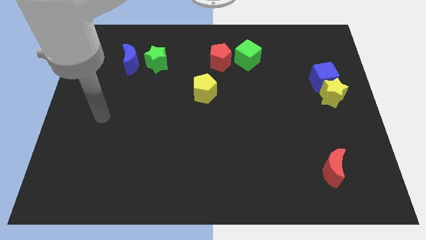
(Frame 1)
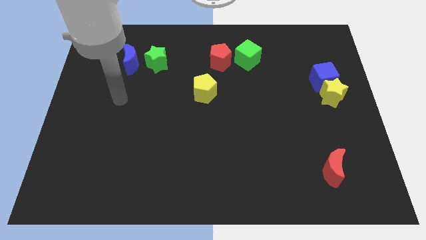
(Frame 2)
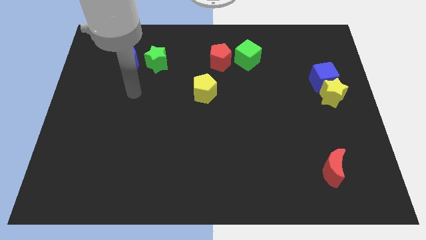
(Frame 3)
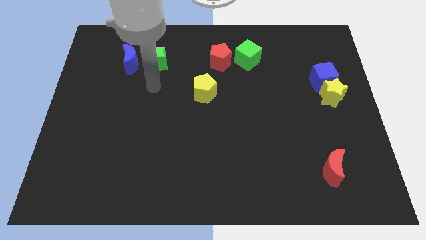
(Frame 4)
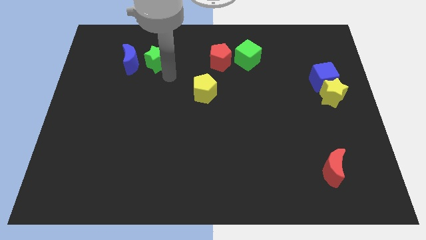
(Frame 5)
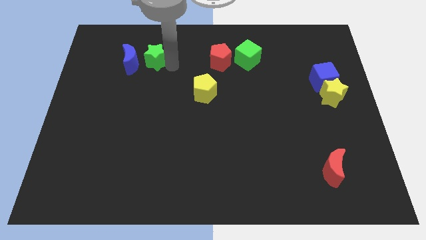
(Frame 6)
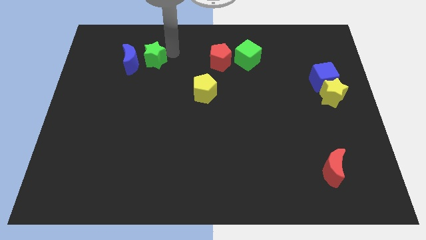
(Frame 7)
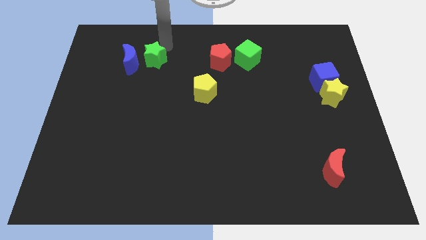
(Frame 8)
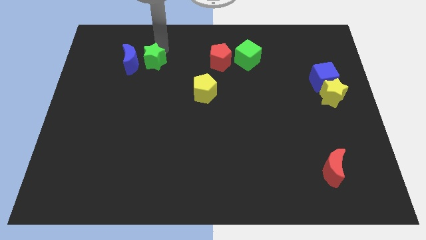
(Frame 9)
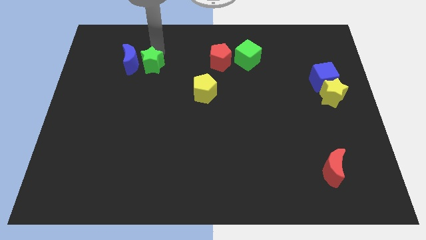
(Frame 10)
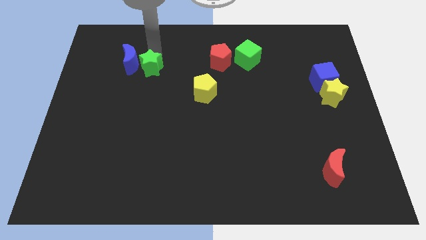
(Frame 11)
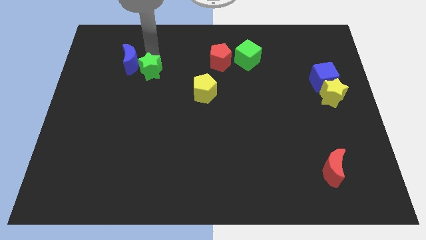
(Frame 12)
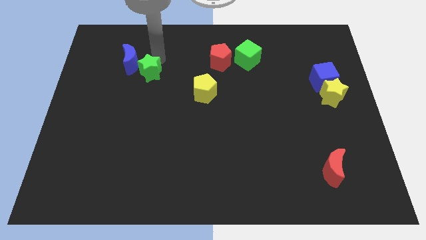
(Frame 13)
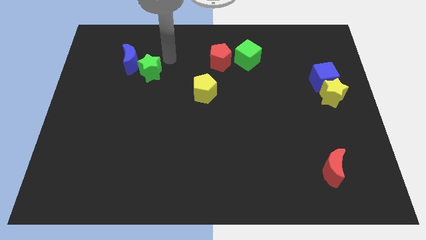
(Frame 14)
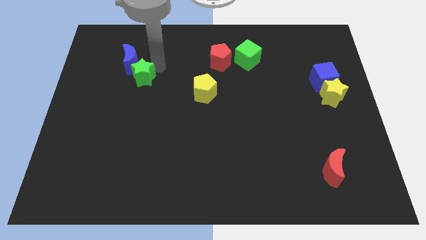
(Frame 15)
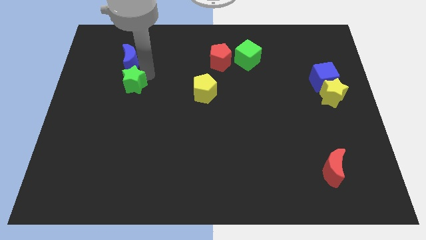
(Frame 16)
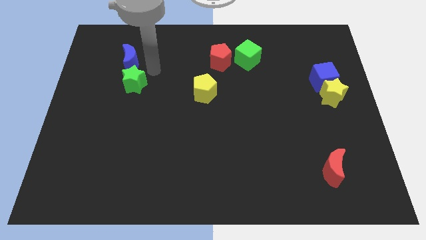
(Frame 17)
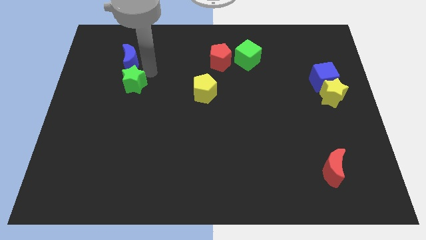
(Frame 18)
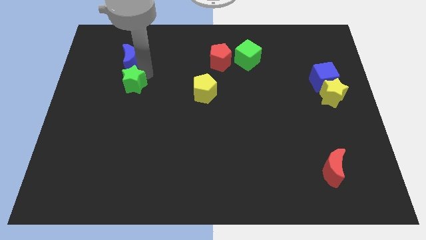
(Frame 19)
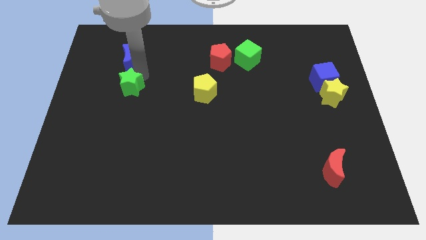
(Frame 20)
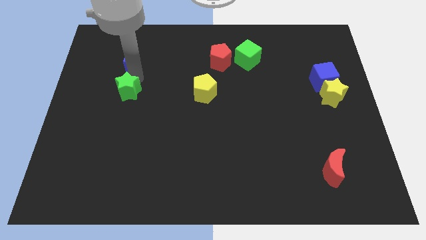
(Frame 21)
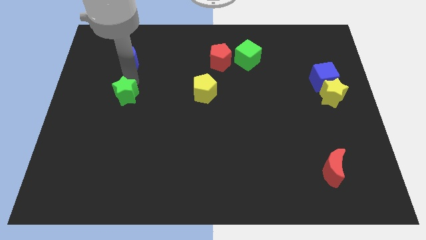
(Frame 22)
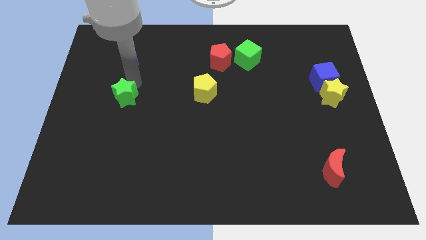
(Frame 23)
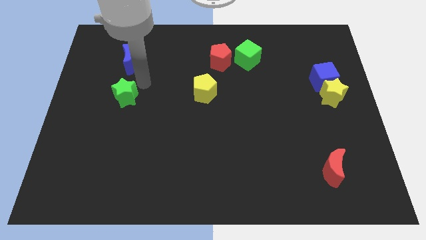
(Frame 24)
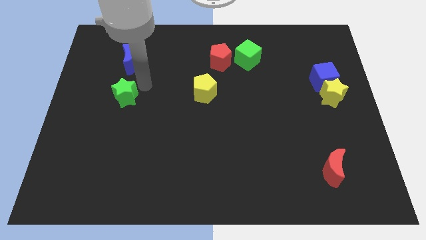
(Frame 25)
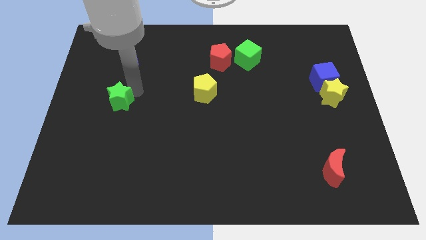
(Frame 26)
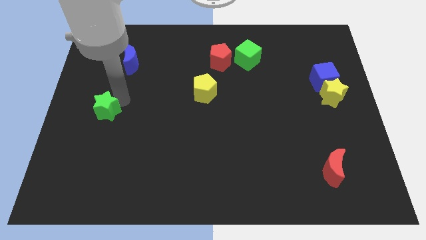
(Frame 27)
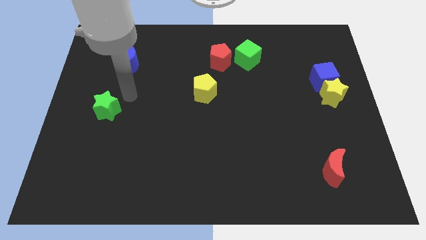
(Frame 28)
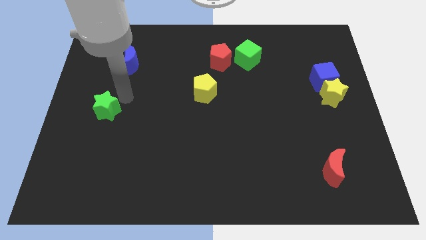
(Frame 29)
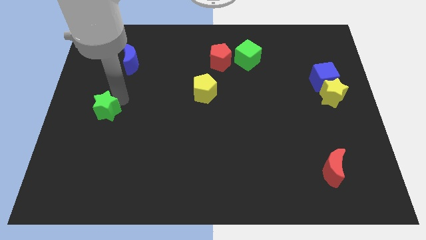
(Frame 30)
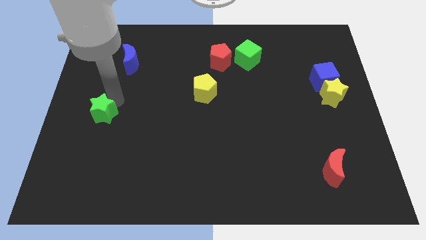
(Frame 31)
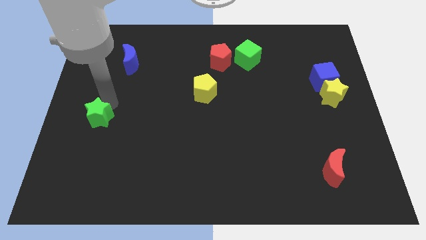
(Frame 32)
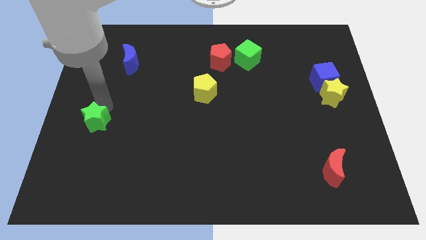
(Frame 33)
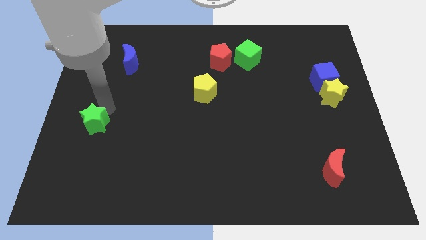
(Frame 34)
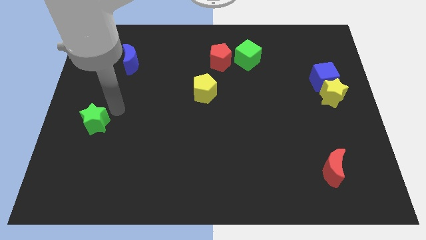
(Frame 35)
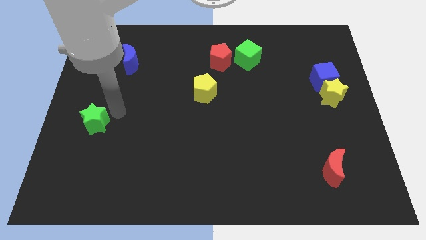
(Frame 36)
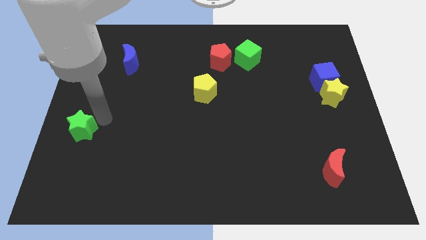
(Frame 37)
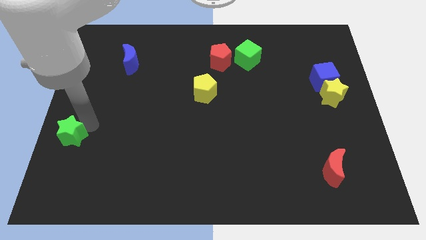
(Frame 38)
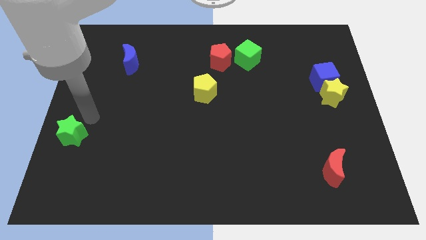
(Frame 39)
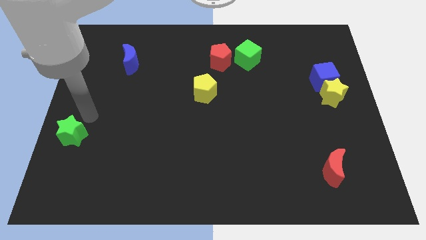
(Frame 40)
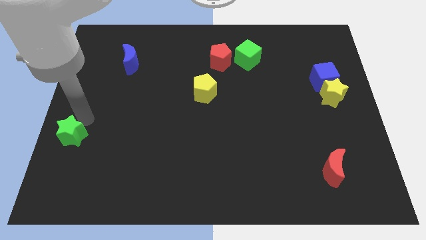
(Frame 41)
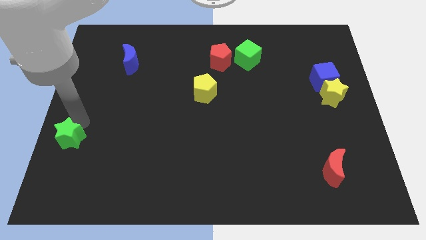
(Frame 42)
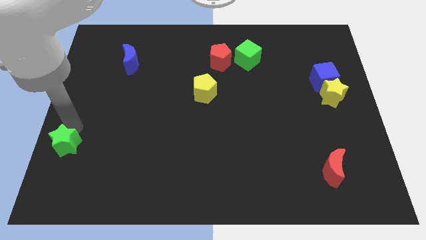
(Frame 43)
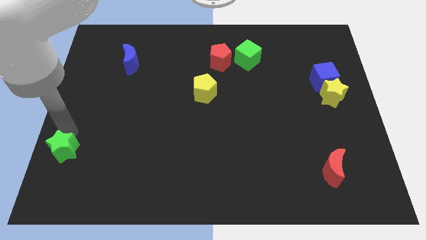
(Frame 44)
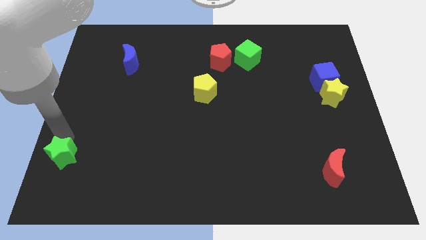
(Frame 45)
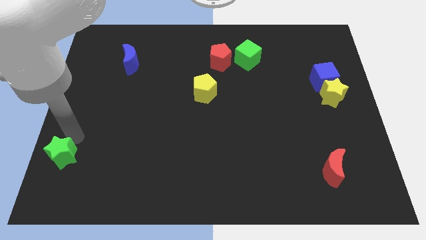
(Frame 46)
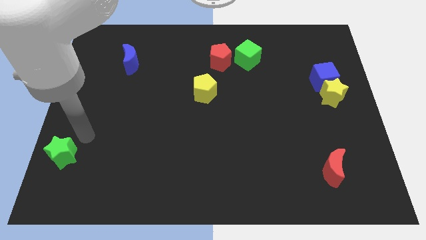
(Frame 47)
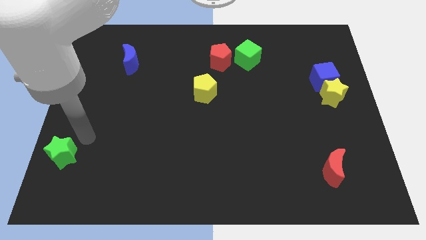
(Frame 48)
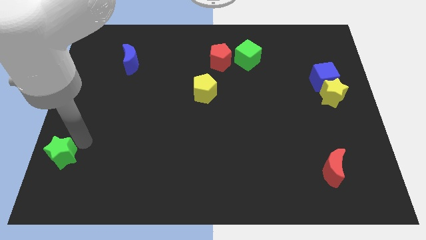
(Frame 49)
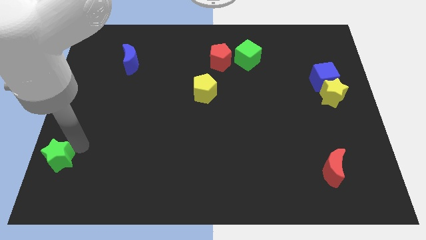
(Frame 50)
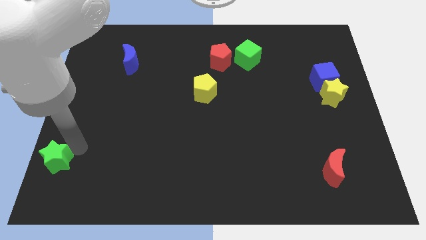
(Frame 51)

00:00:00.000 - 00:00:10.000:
put the green star to the lower left corner

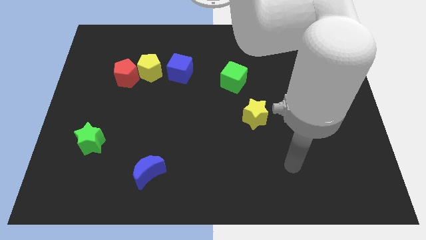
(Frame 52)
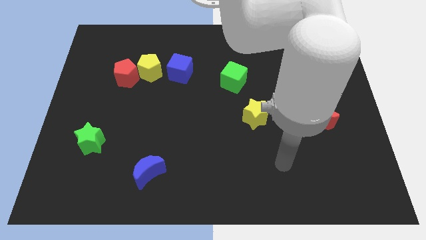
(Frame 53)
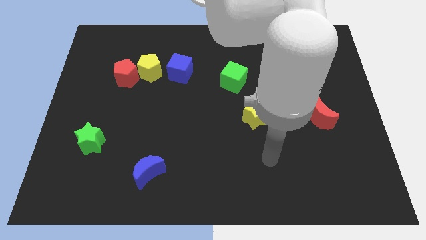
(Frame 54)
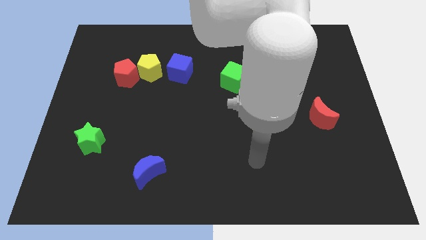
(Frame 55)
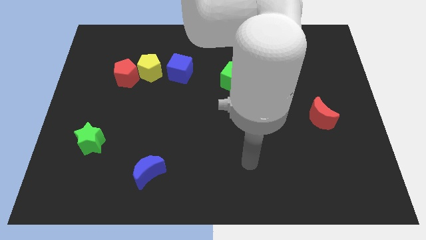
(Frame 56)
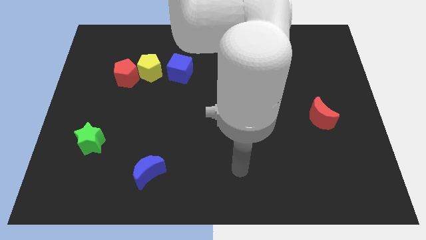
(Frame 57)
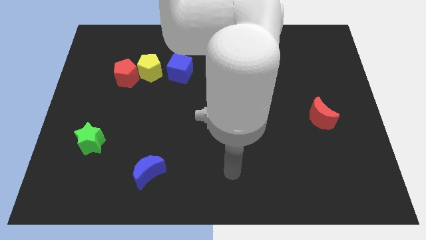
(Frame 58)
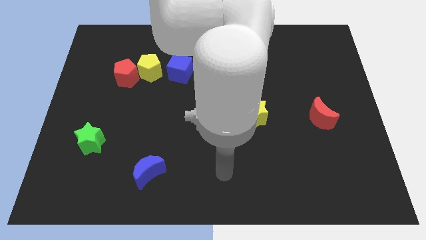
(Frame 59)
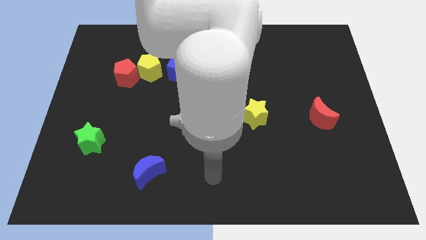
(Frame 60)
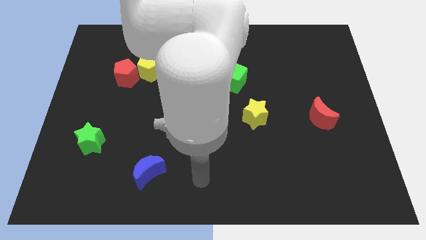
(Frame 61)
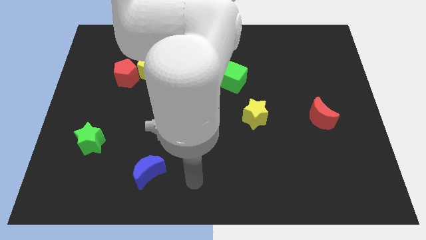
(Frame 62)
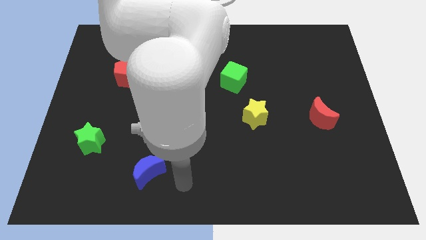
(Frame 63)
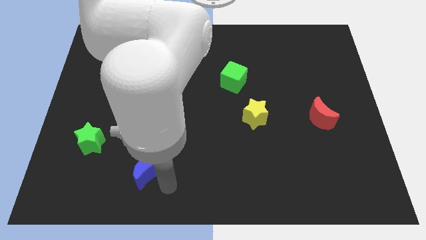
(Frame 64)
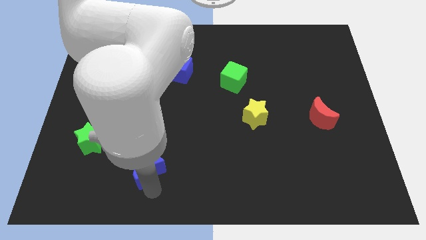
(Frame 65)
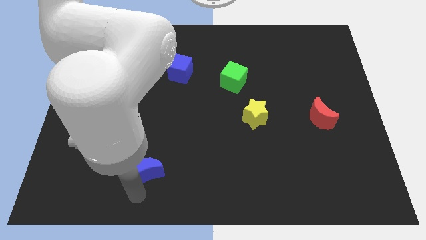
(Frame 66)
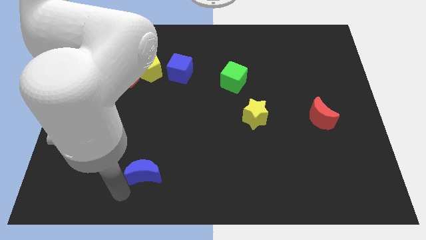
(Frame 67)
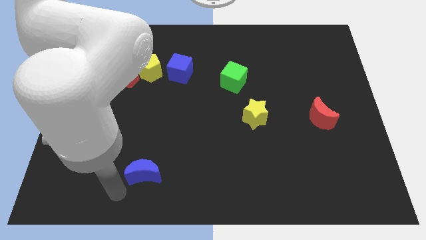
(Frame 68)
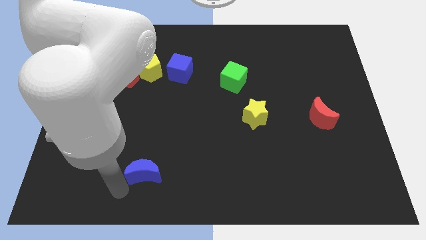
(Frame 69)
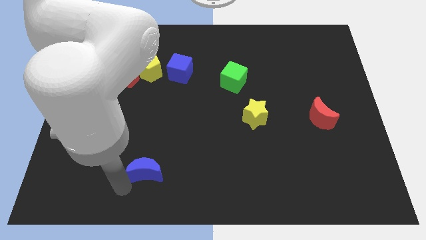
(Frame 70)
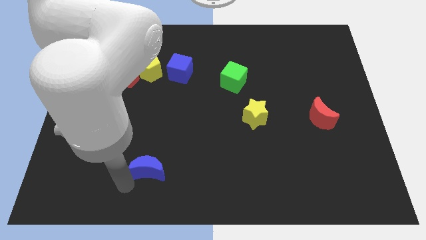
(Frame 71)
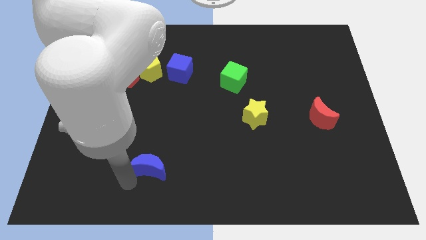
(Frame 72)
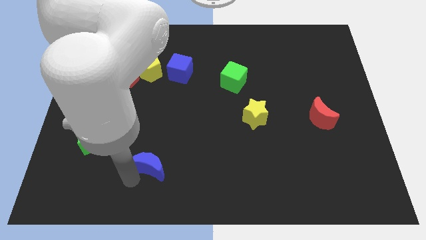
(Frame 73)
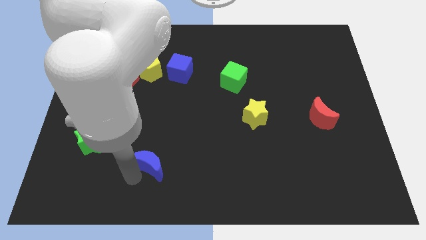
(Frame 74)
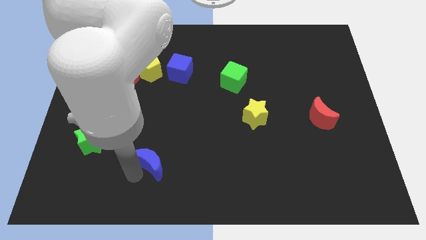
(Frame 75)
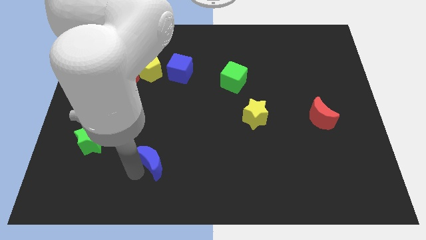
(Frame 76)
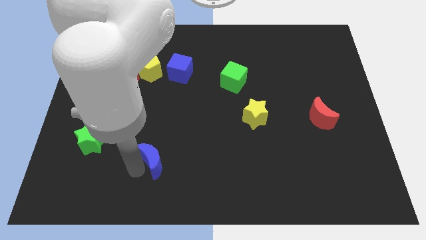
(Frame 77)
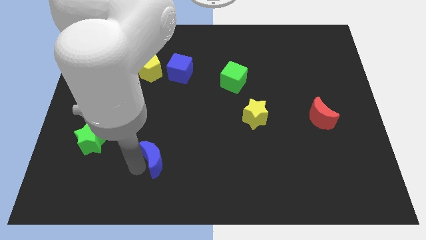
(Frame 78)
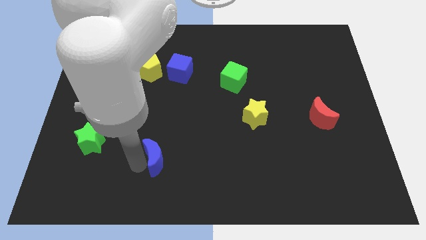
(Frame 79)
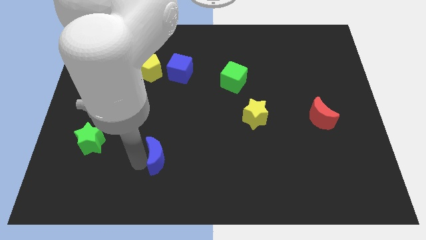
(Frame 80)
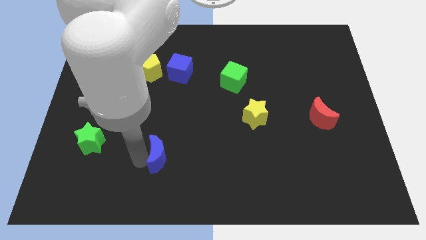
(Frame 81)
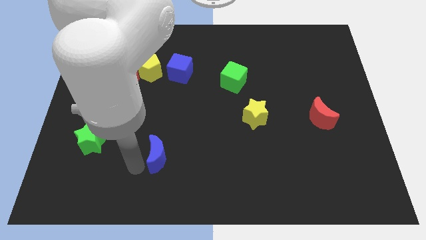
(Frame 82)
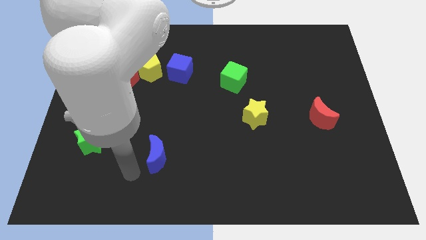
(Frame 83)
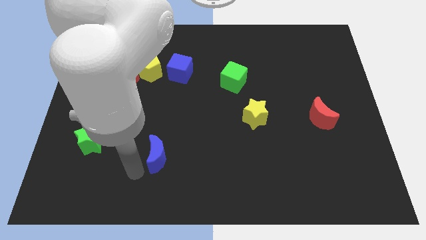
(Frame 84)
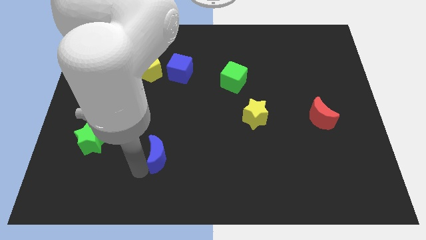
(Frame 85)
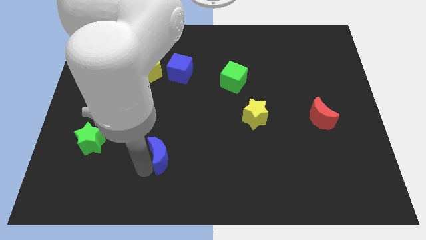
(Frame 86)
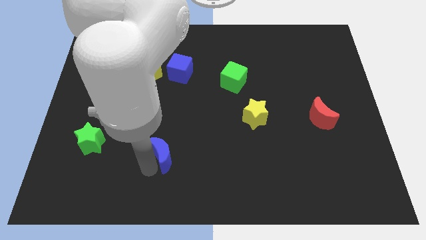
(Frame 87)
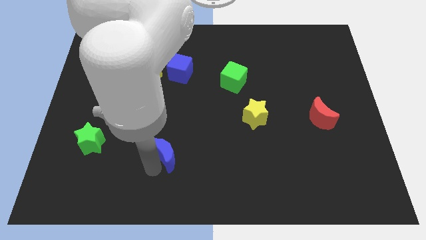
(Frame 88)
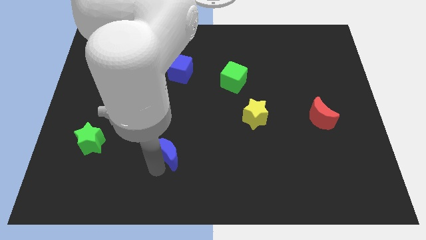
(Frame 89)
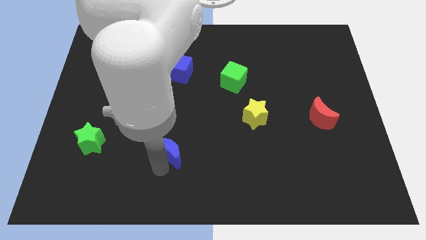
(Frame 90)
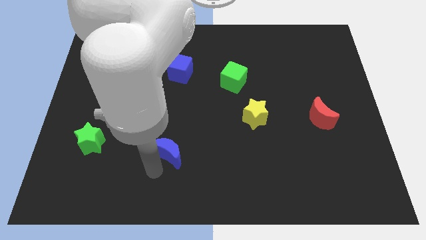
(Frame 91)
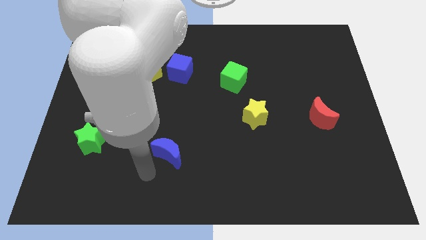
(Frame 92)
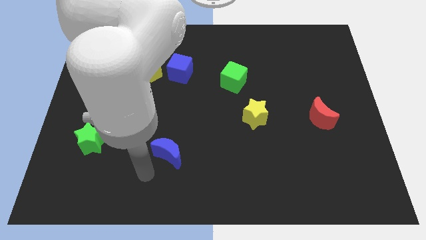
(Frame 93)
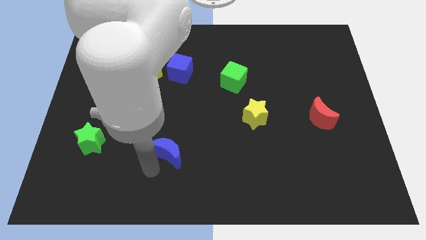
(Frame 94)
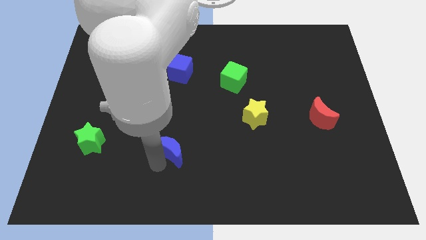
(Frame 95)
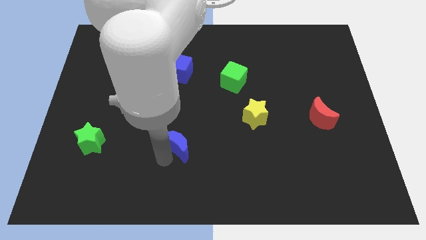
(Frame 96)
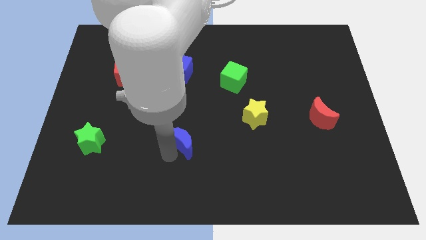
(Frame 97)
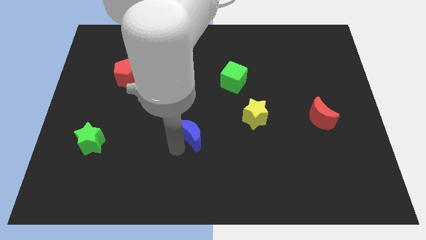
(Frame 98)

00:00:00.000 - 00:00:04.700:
slide the blue moon to the middle of the board
